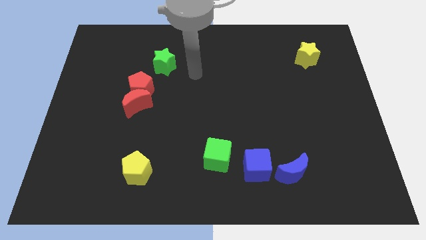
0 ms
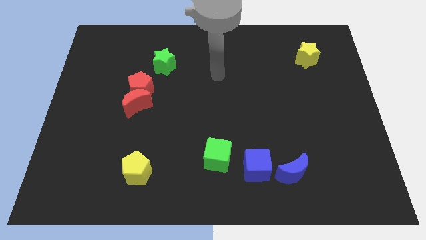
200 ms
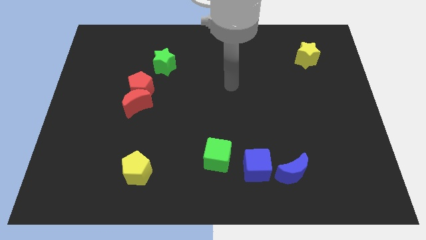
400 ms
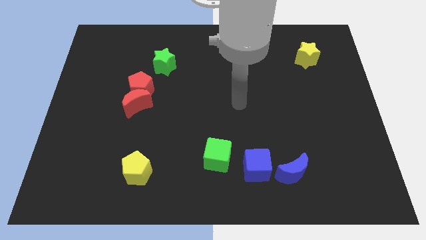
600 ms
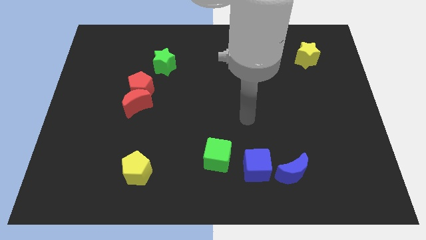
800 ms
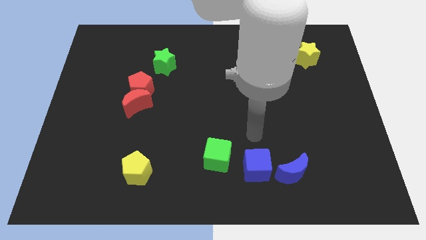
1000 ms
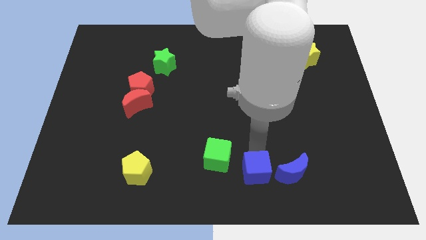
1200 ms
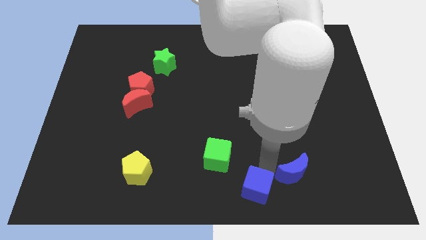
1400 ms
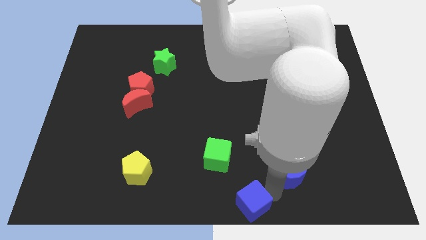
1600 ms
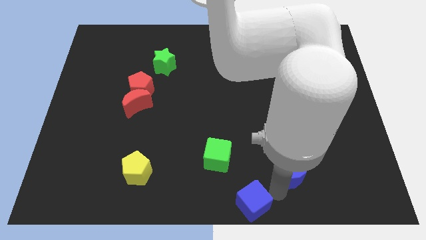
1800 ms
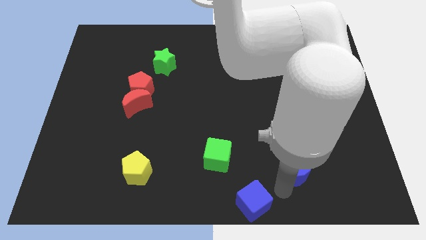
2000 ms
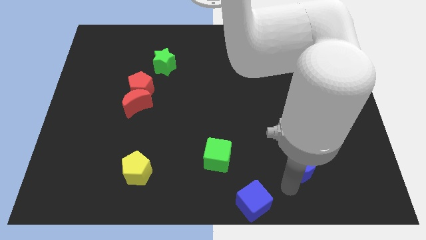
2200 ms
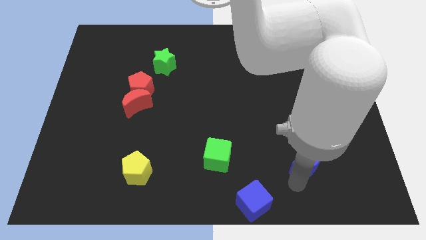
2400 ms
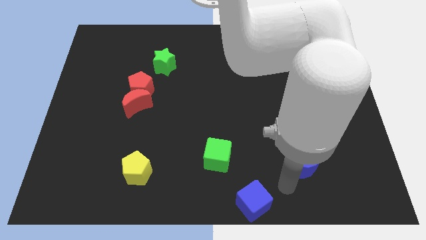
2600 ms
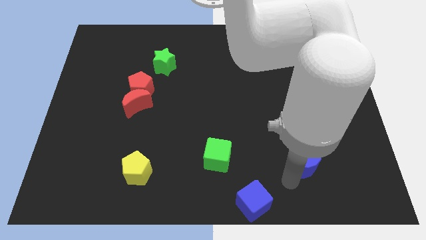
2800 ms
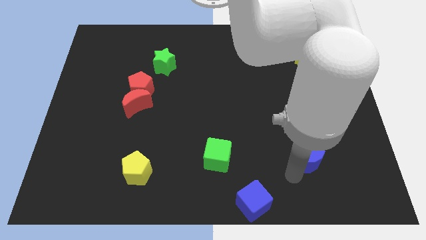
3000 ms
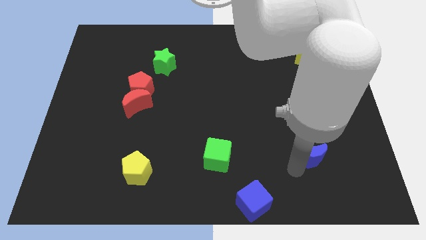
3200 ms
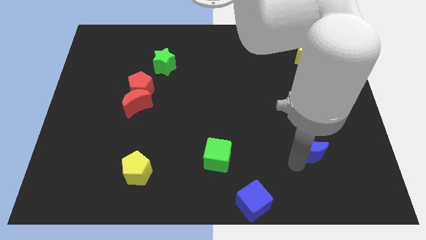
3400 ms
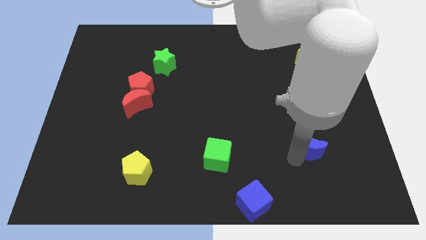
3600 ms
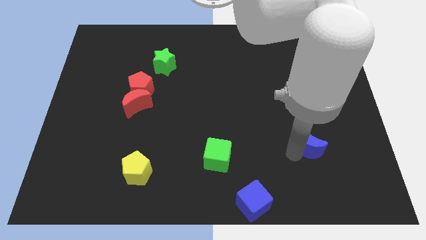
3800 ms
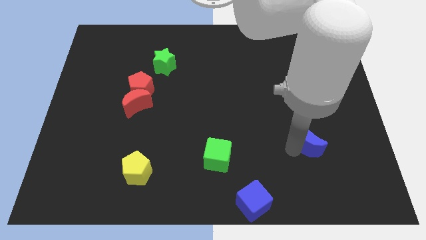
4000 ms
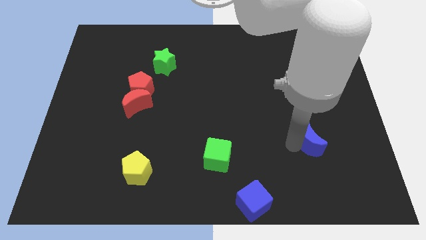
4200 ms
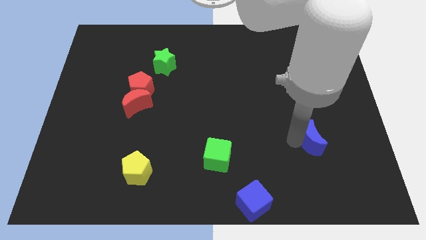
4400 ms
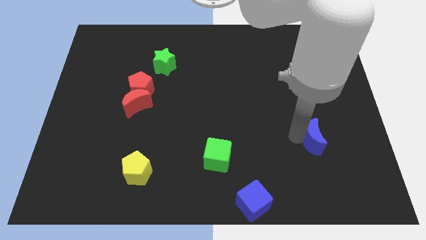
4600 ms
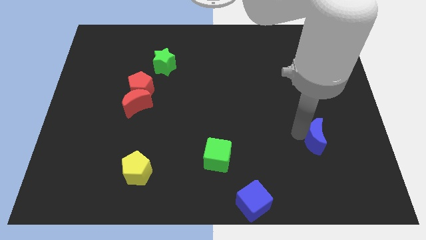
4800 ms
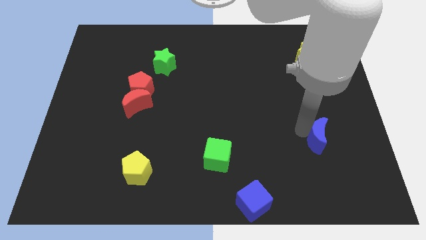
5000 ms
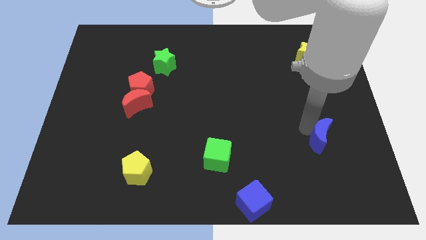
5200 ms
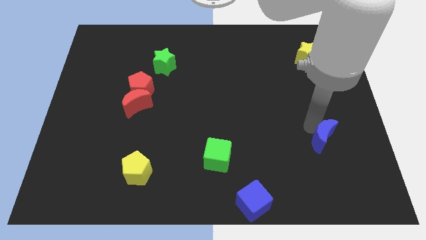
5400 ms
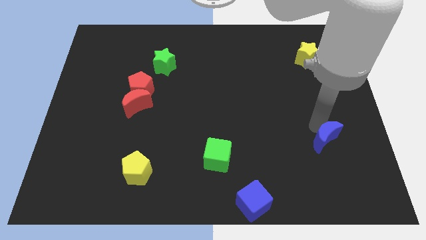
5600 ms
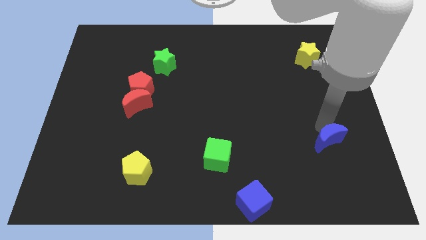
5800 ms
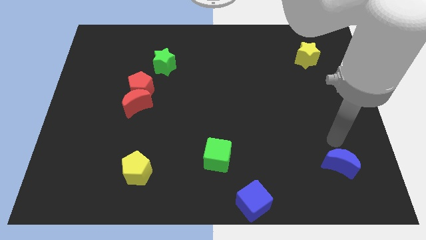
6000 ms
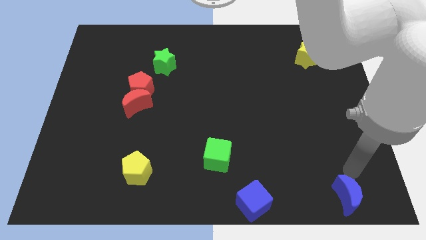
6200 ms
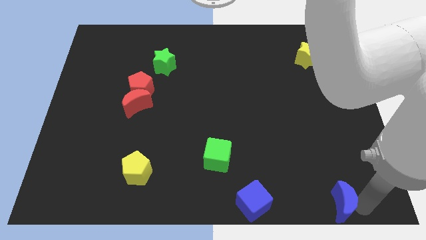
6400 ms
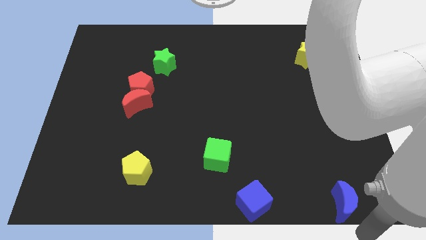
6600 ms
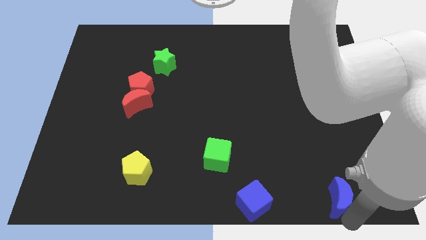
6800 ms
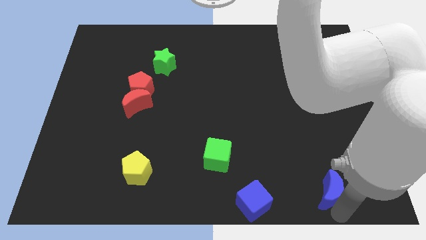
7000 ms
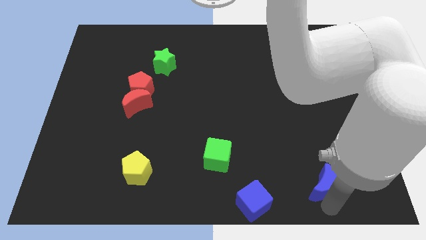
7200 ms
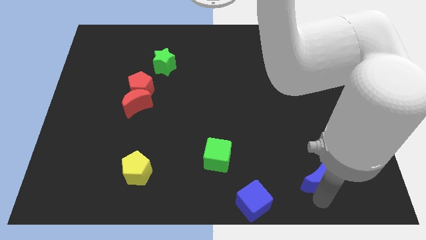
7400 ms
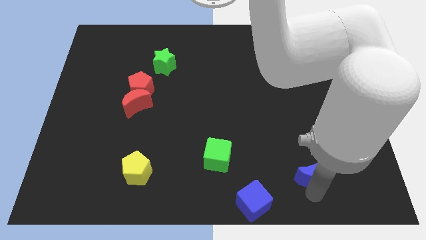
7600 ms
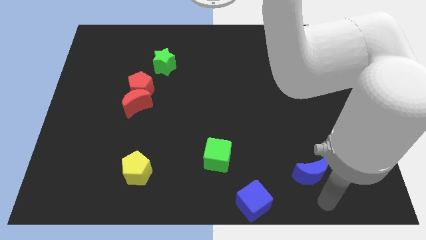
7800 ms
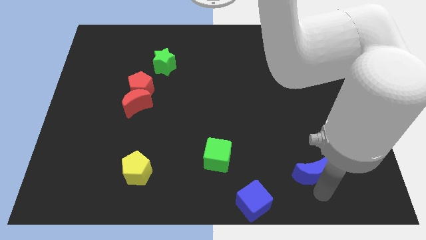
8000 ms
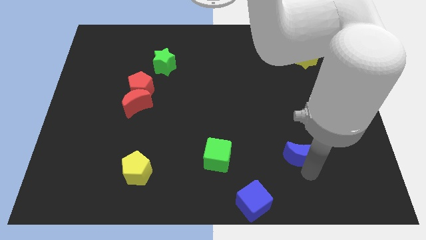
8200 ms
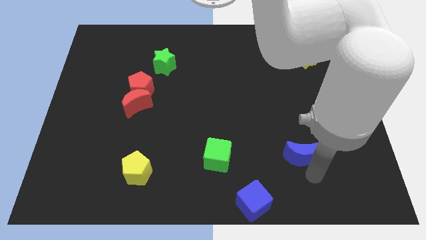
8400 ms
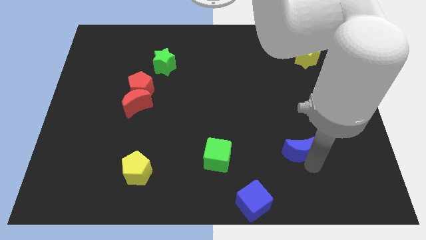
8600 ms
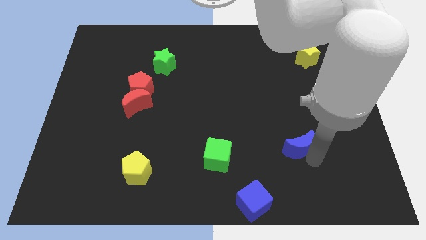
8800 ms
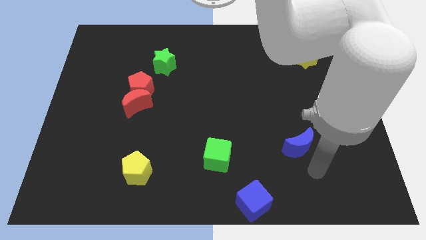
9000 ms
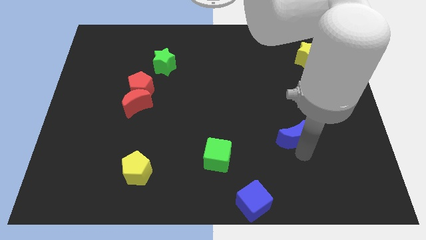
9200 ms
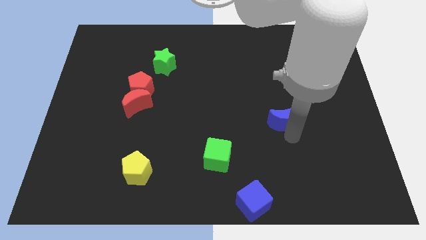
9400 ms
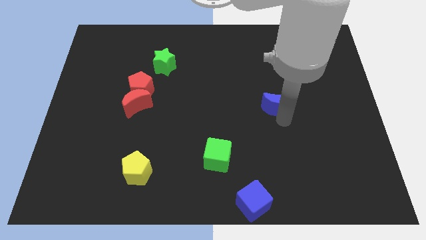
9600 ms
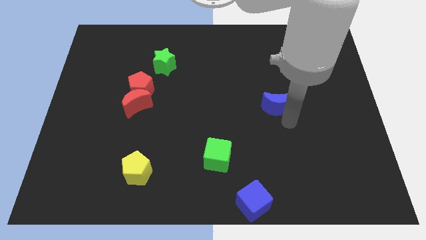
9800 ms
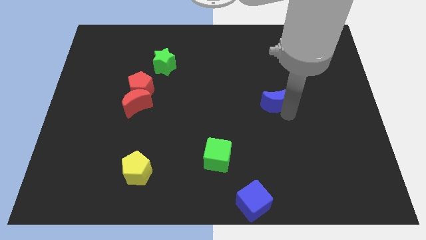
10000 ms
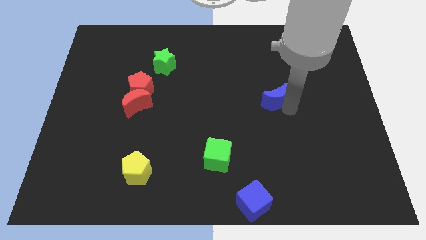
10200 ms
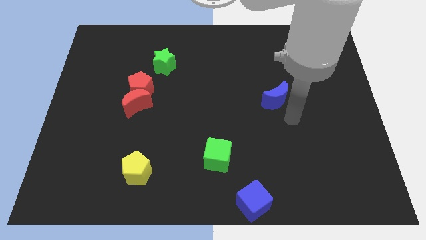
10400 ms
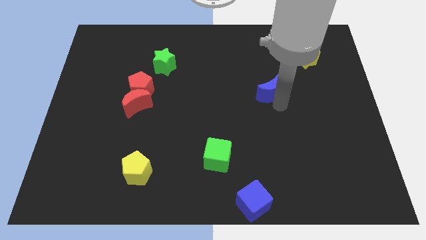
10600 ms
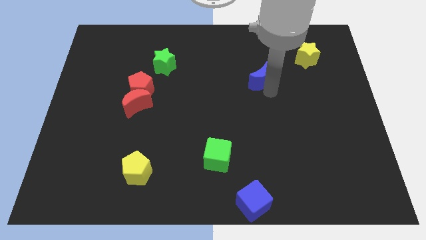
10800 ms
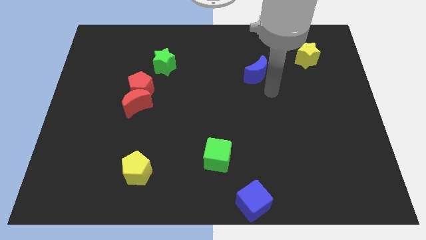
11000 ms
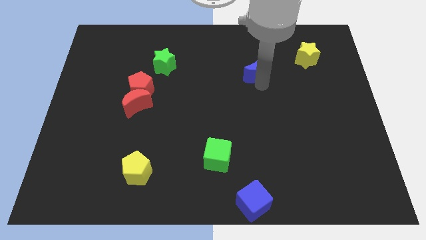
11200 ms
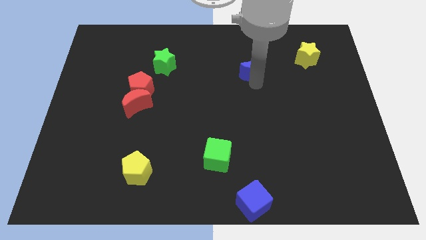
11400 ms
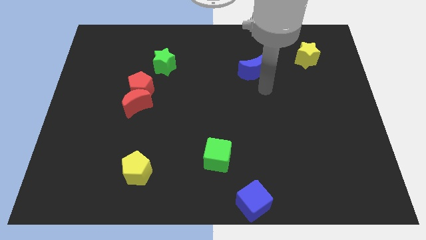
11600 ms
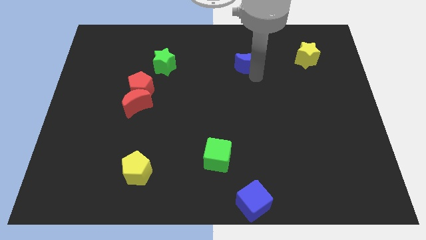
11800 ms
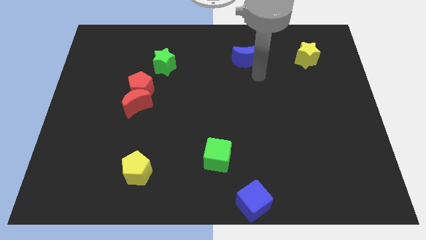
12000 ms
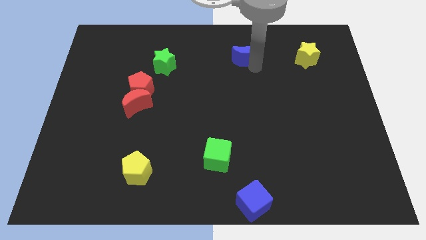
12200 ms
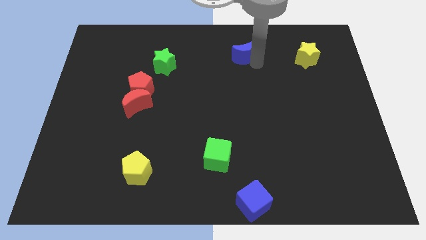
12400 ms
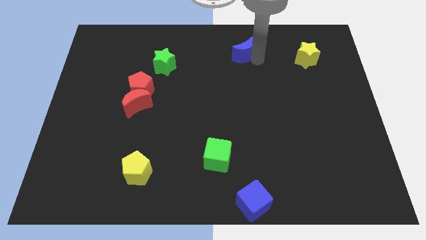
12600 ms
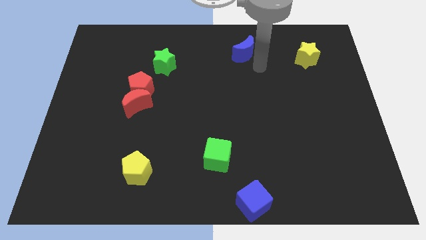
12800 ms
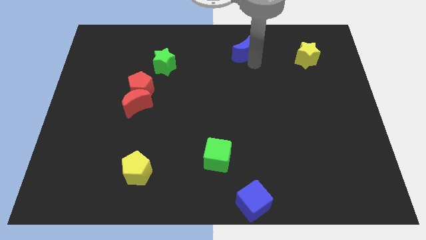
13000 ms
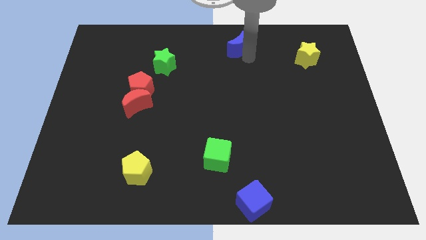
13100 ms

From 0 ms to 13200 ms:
move the blue moon to the towards your base

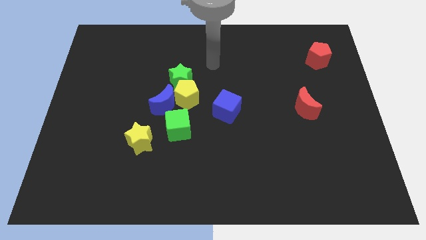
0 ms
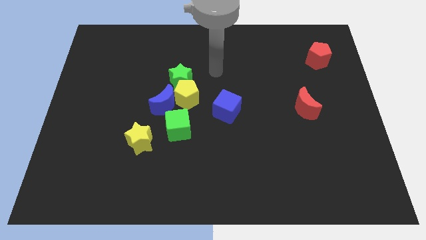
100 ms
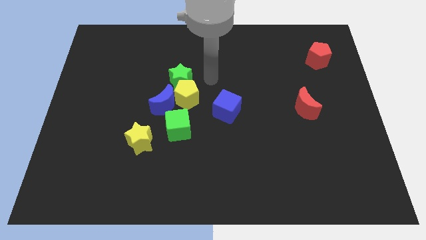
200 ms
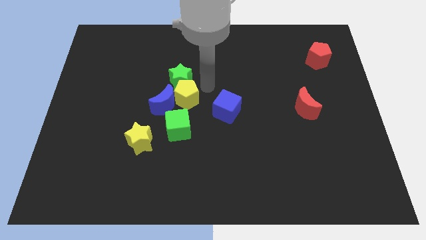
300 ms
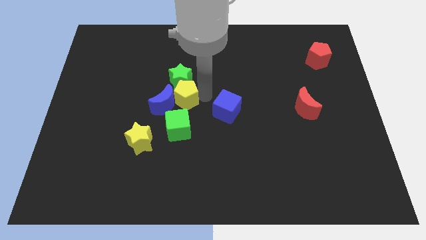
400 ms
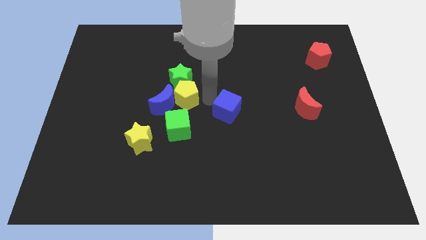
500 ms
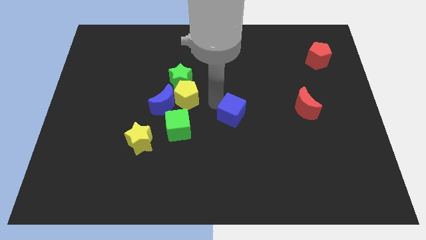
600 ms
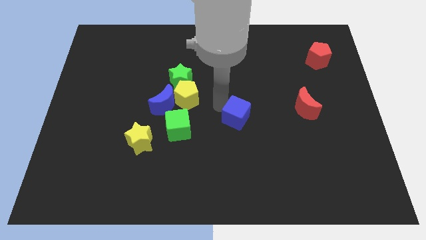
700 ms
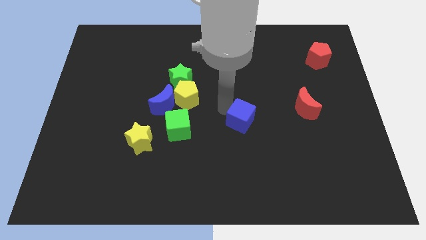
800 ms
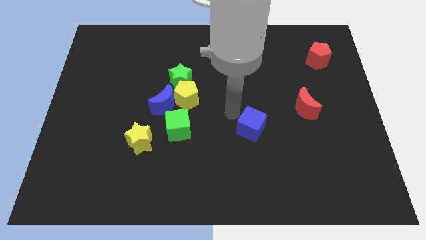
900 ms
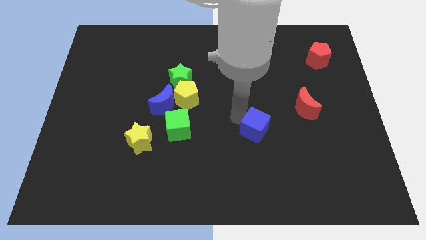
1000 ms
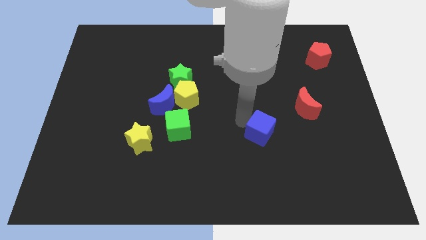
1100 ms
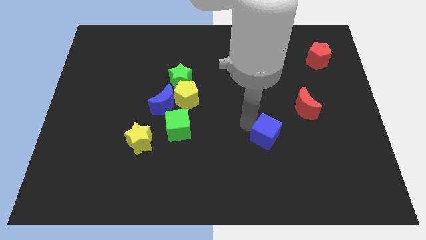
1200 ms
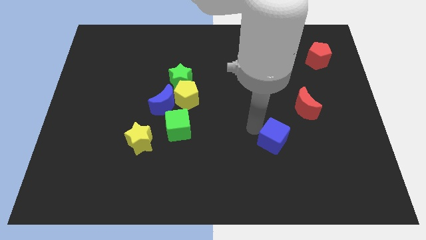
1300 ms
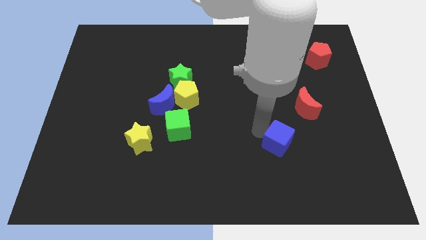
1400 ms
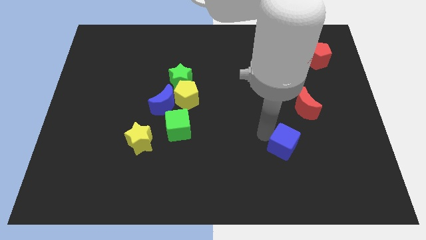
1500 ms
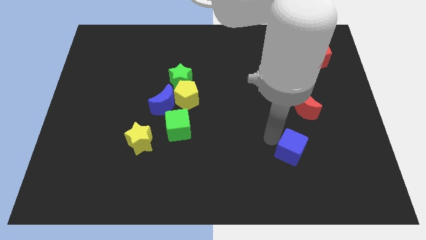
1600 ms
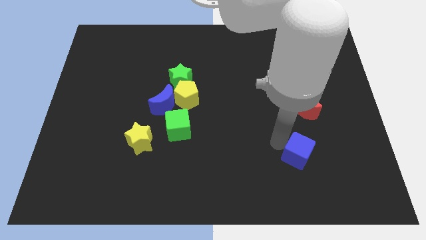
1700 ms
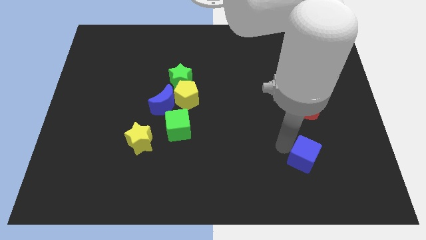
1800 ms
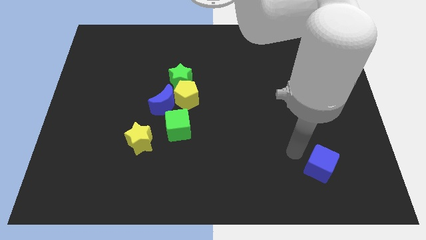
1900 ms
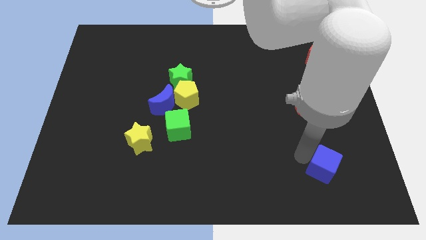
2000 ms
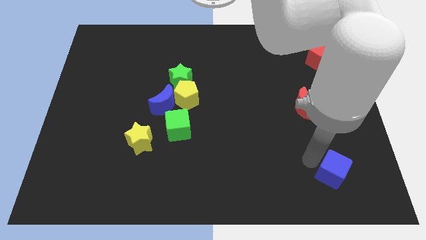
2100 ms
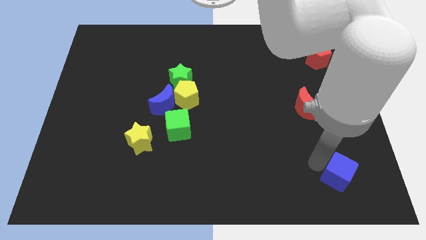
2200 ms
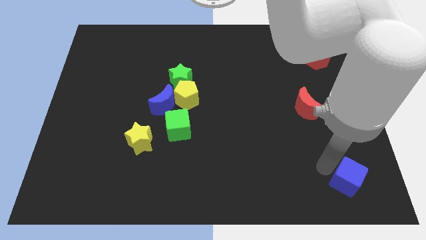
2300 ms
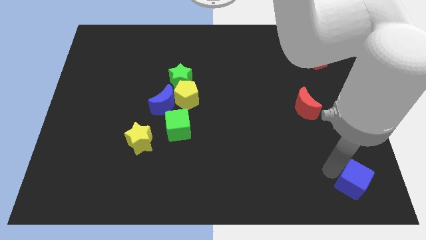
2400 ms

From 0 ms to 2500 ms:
move the blue cube to the bottom right
